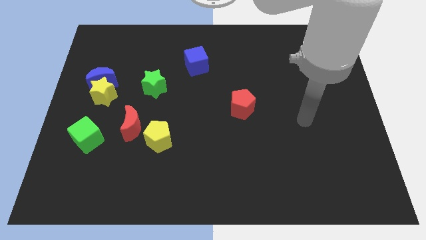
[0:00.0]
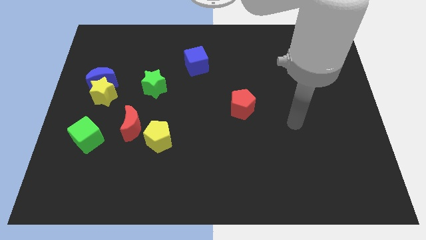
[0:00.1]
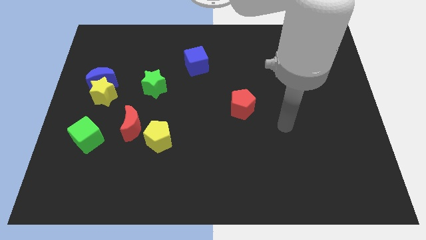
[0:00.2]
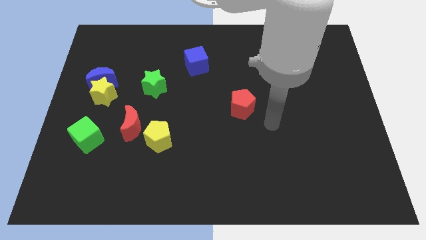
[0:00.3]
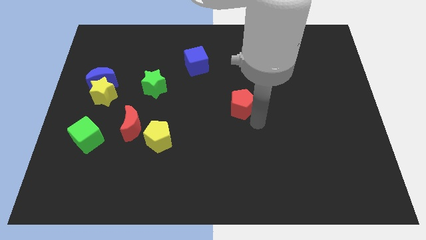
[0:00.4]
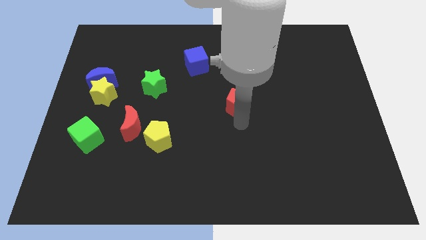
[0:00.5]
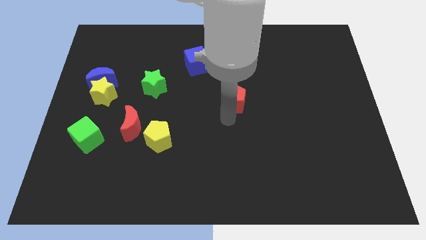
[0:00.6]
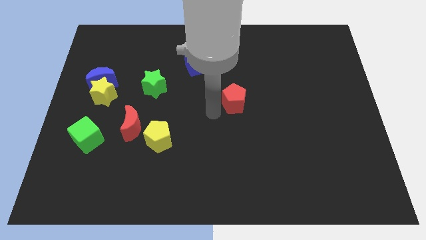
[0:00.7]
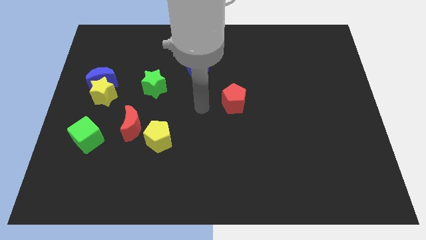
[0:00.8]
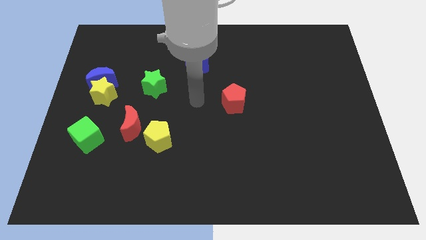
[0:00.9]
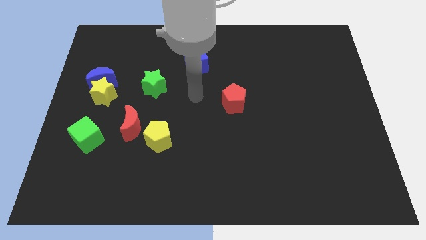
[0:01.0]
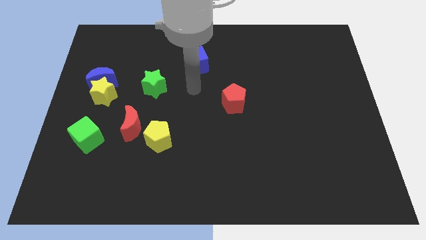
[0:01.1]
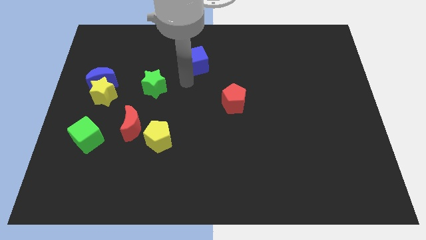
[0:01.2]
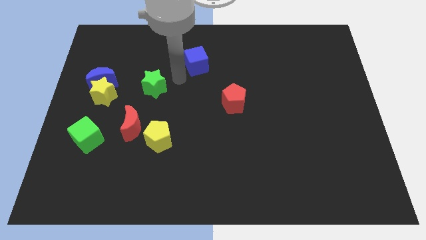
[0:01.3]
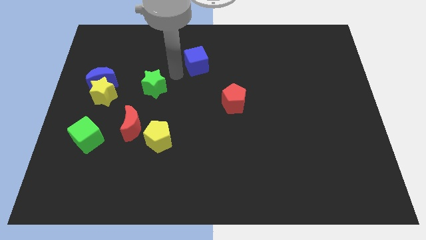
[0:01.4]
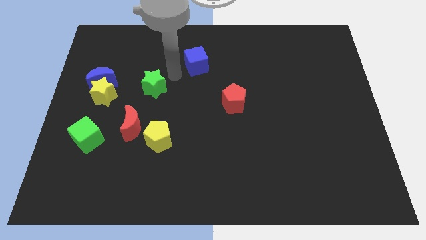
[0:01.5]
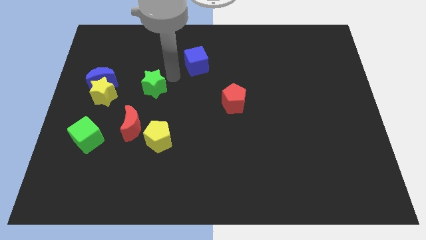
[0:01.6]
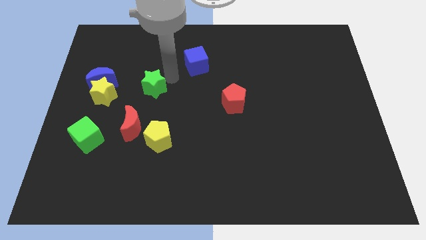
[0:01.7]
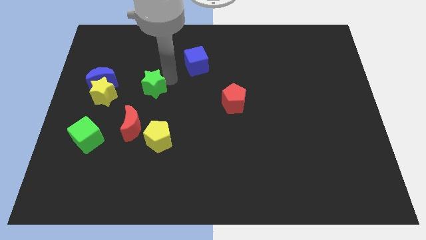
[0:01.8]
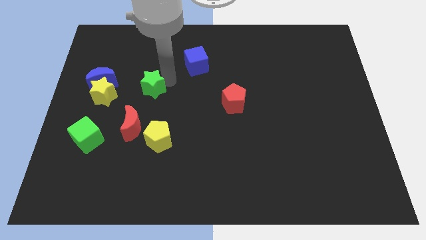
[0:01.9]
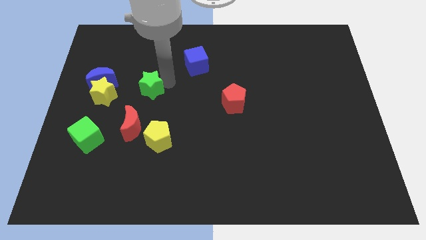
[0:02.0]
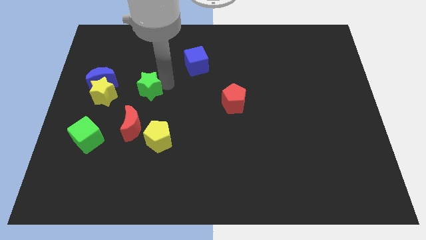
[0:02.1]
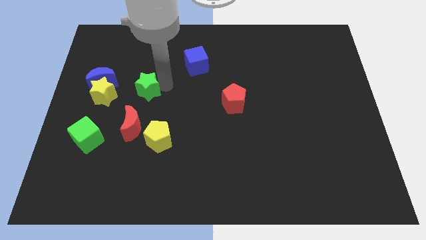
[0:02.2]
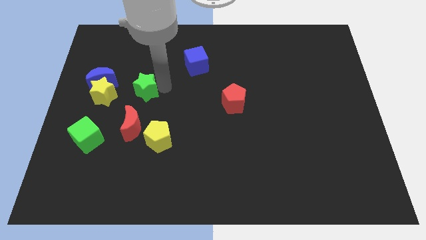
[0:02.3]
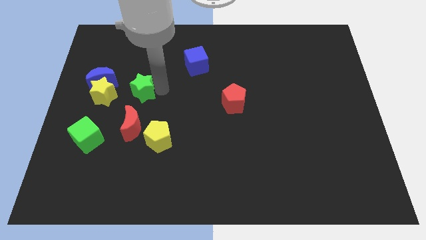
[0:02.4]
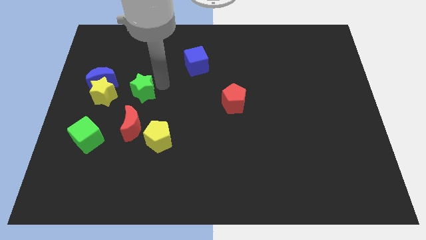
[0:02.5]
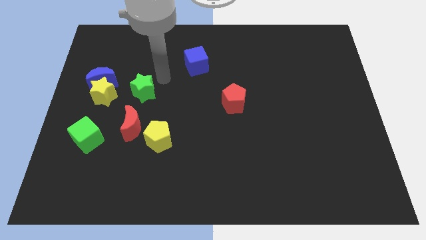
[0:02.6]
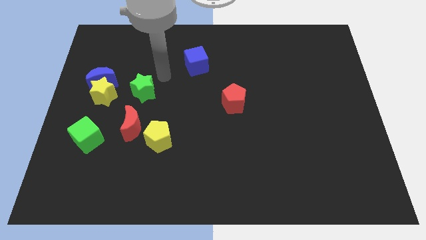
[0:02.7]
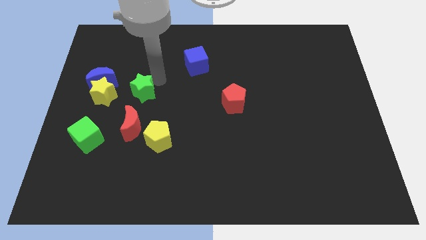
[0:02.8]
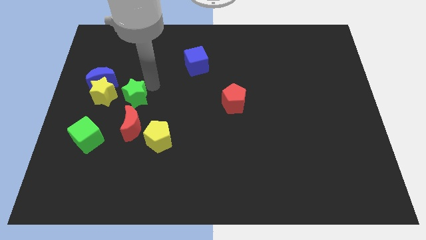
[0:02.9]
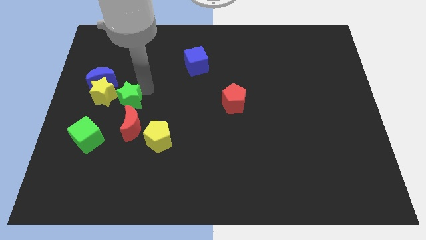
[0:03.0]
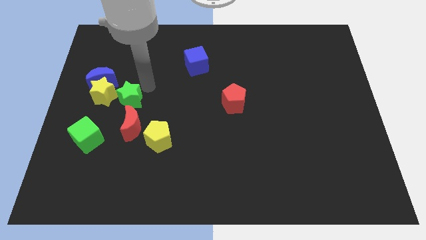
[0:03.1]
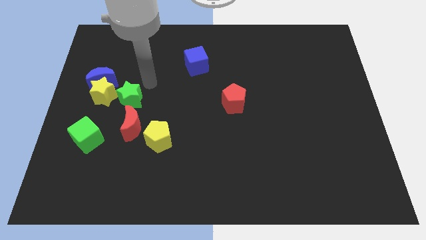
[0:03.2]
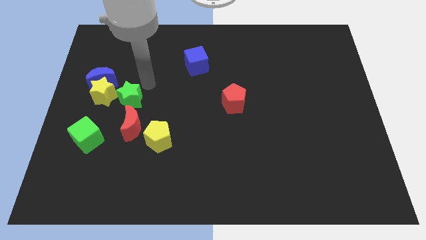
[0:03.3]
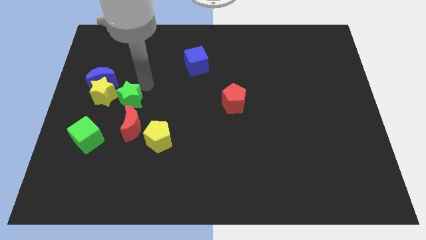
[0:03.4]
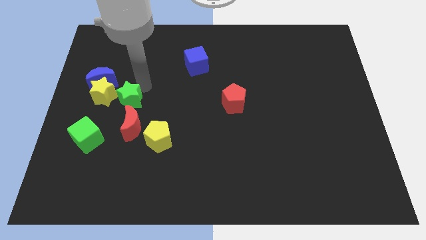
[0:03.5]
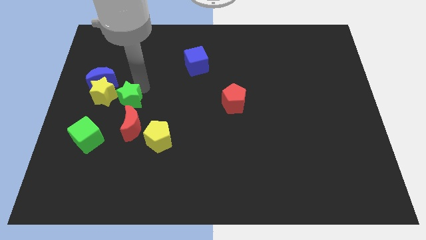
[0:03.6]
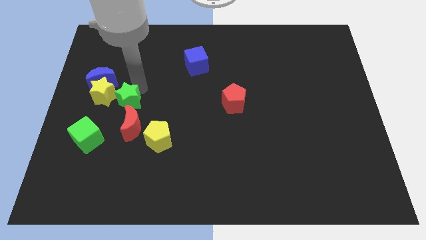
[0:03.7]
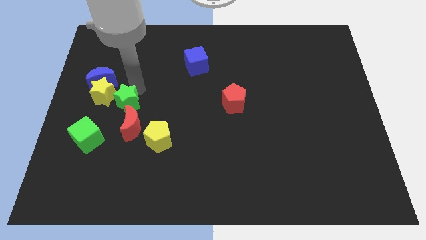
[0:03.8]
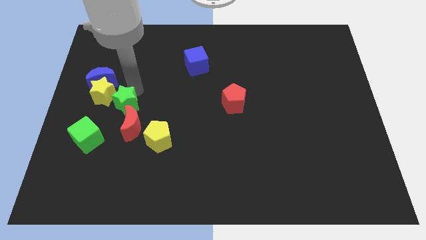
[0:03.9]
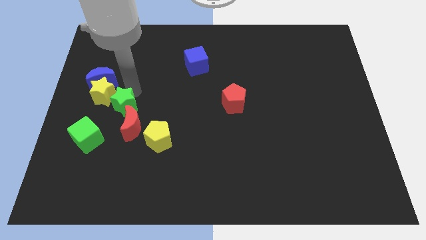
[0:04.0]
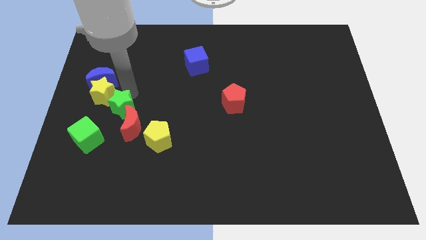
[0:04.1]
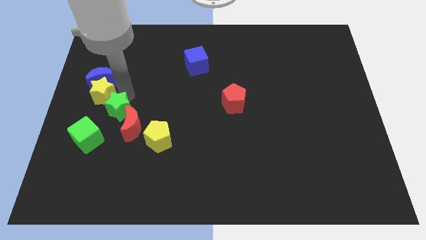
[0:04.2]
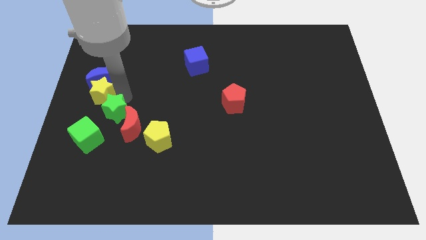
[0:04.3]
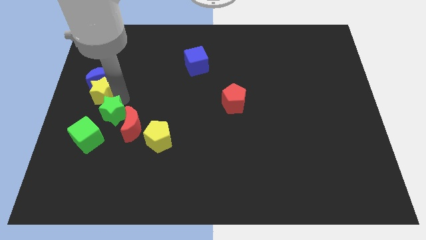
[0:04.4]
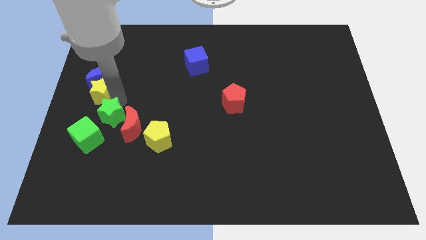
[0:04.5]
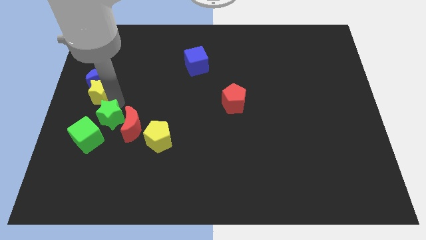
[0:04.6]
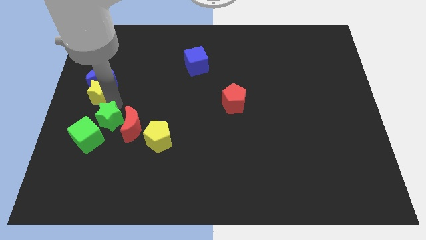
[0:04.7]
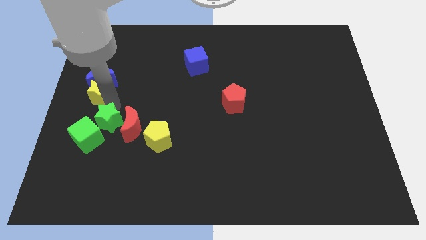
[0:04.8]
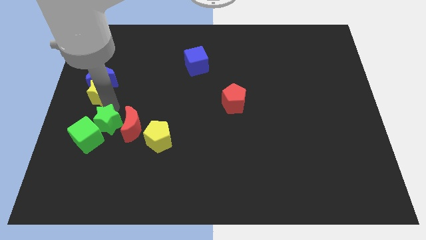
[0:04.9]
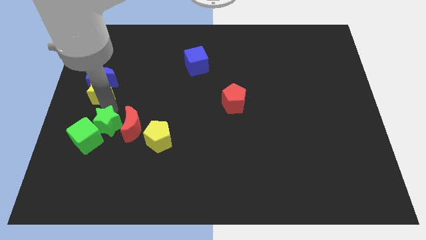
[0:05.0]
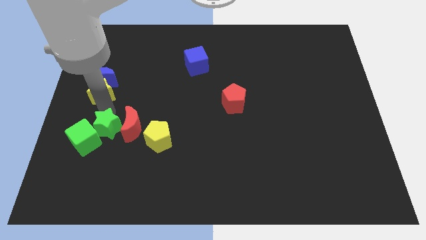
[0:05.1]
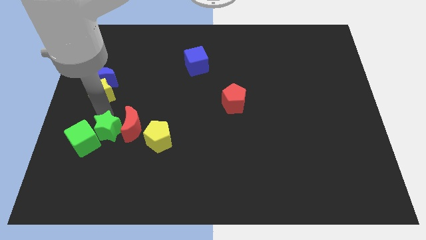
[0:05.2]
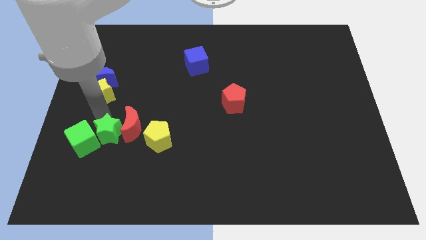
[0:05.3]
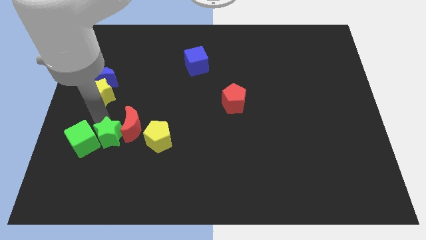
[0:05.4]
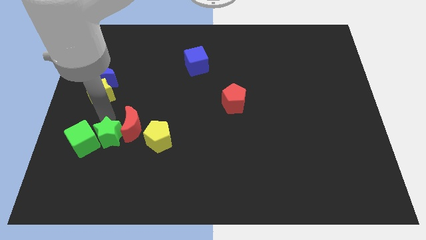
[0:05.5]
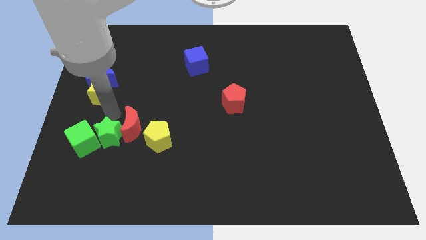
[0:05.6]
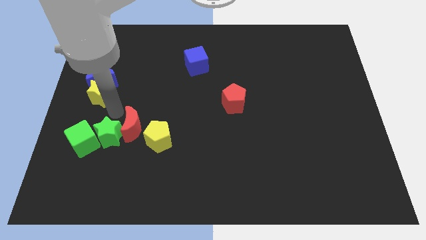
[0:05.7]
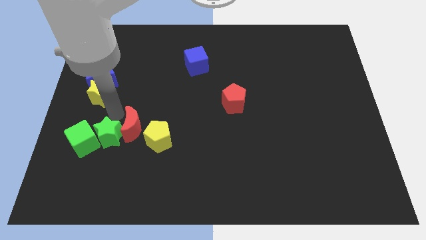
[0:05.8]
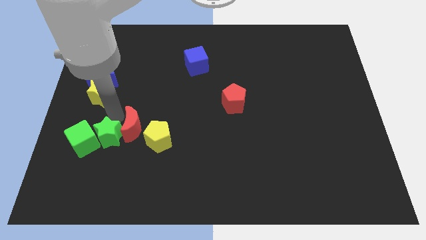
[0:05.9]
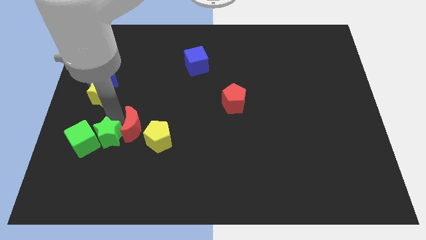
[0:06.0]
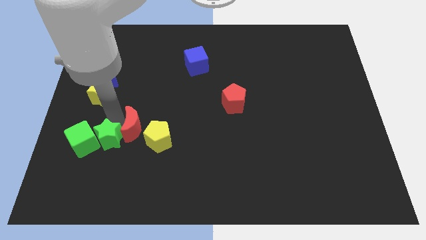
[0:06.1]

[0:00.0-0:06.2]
put the green star diagonally down and to the right of the green cube

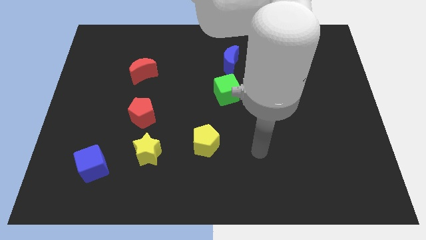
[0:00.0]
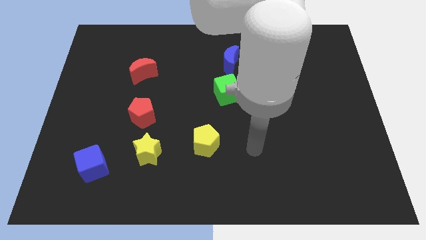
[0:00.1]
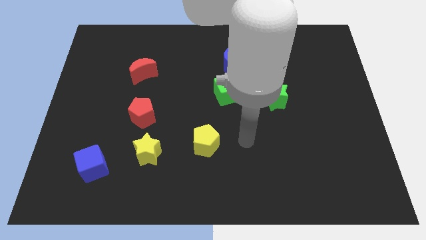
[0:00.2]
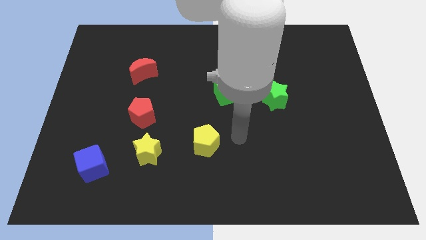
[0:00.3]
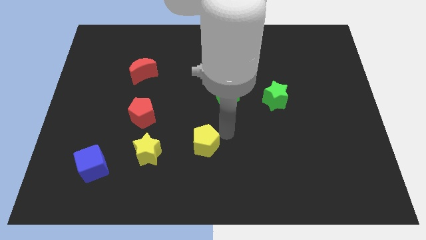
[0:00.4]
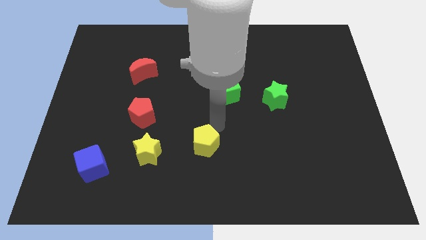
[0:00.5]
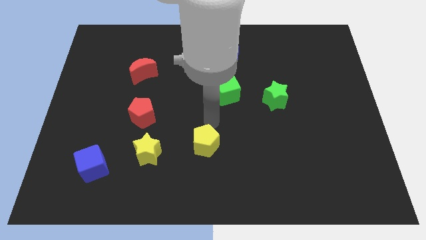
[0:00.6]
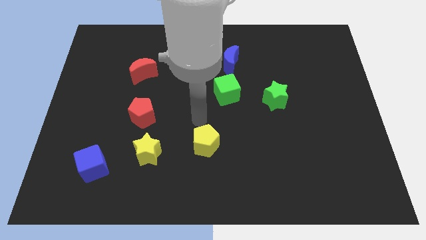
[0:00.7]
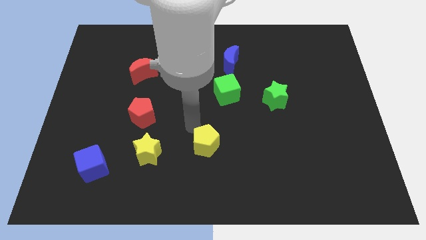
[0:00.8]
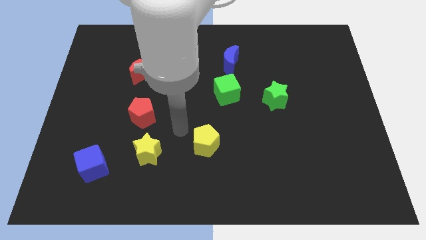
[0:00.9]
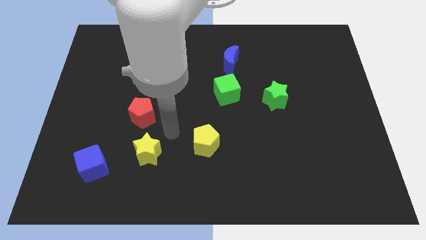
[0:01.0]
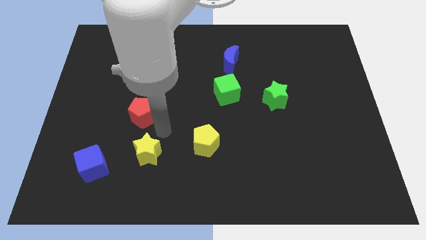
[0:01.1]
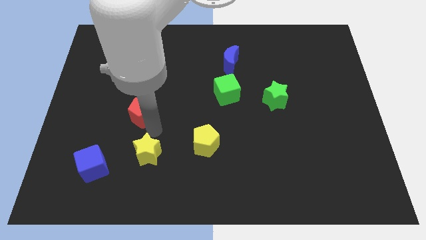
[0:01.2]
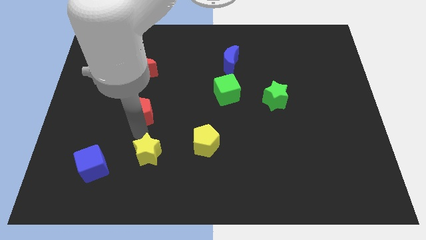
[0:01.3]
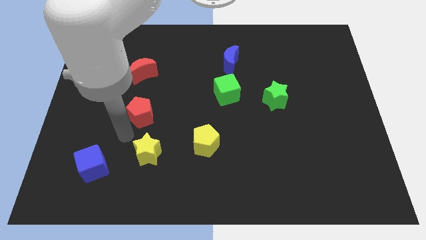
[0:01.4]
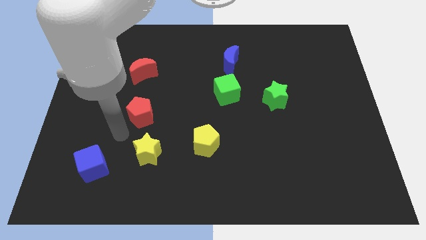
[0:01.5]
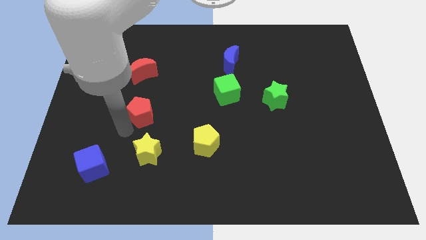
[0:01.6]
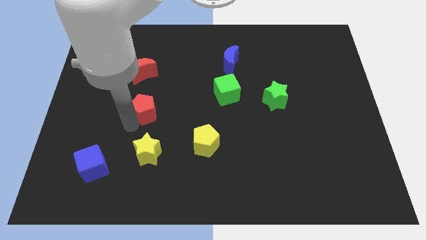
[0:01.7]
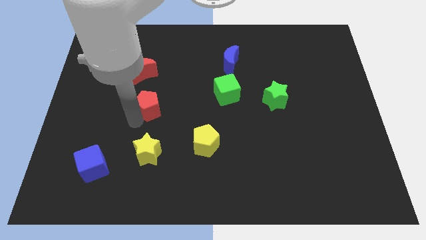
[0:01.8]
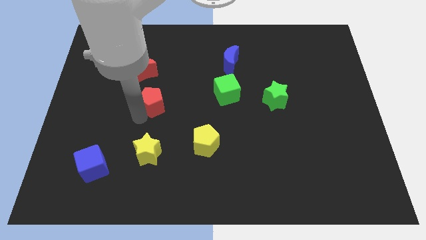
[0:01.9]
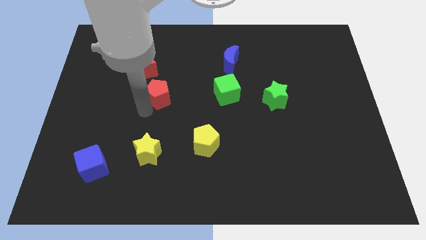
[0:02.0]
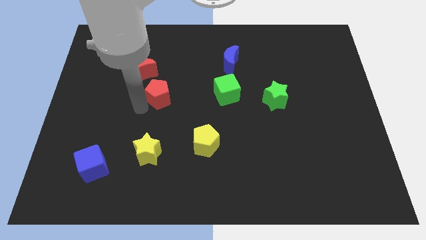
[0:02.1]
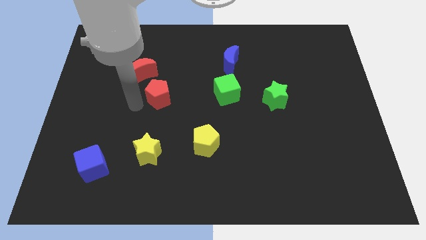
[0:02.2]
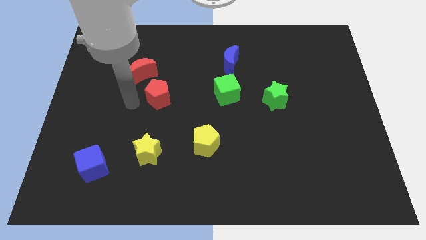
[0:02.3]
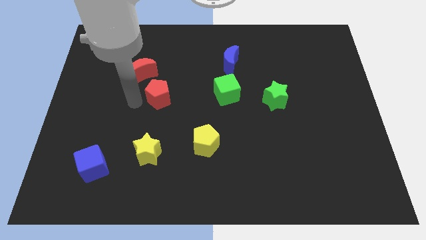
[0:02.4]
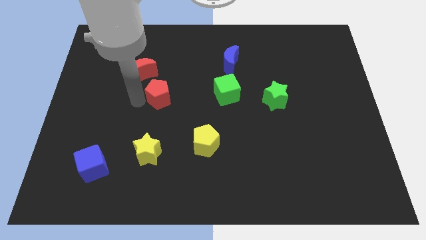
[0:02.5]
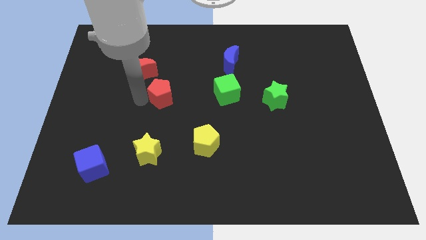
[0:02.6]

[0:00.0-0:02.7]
move the red pentagon to the left side of the green cube
